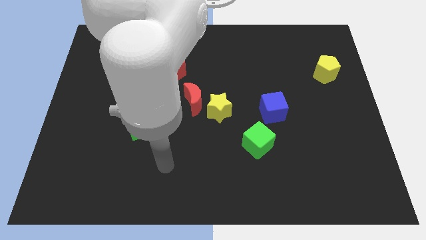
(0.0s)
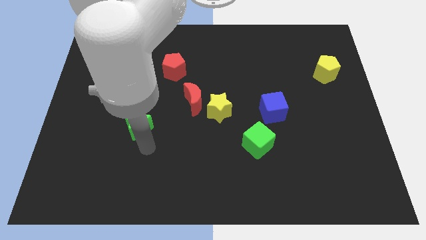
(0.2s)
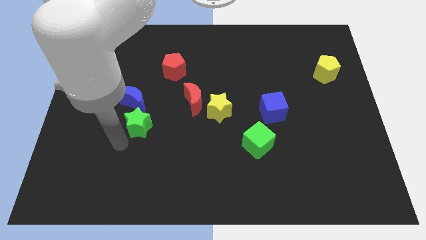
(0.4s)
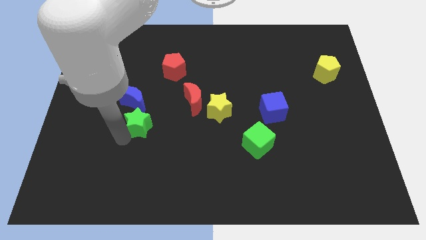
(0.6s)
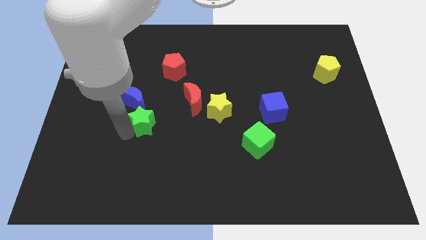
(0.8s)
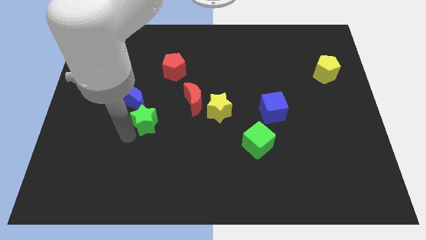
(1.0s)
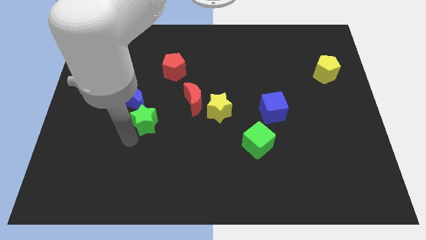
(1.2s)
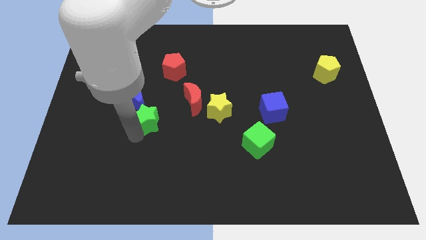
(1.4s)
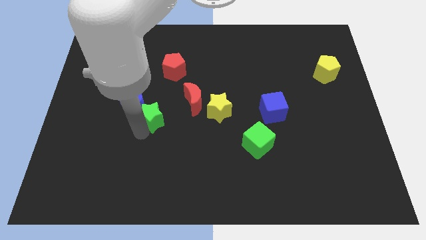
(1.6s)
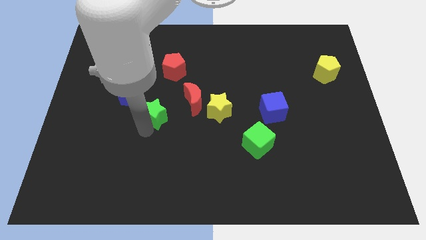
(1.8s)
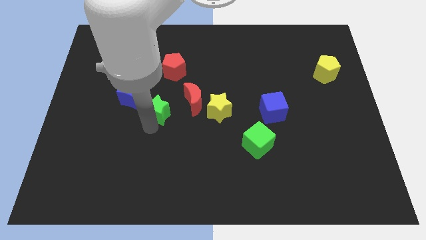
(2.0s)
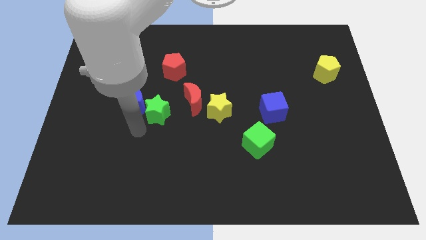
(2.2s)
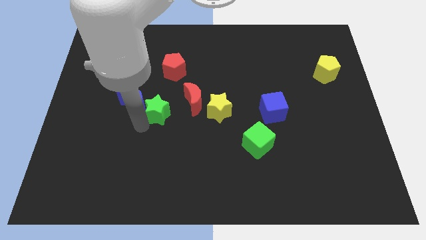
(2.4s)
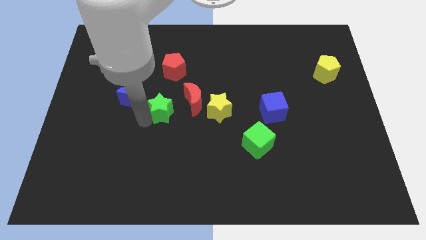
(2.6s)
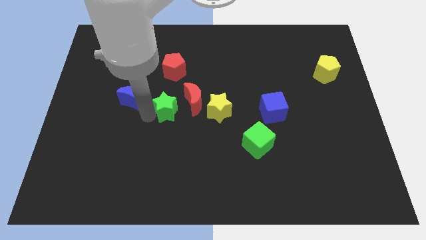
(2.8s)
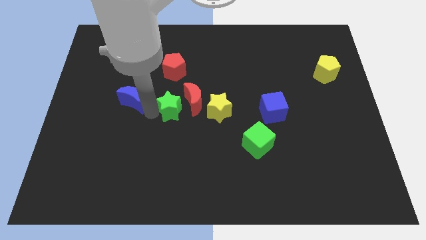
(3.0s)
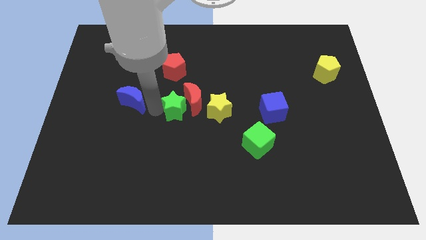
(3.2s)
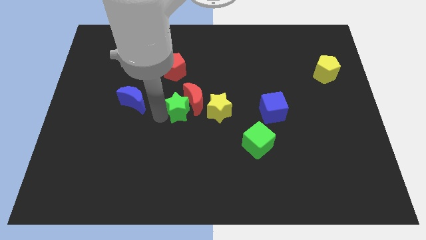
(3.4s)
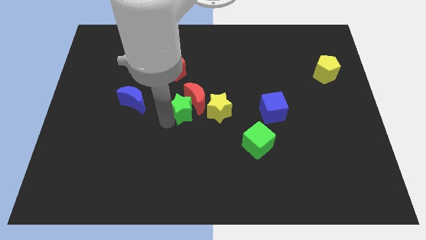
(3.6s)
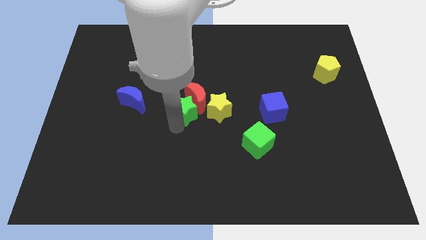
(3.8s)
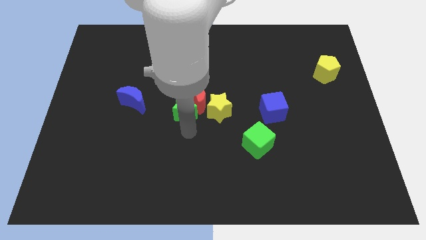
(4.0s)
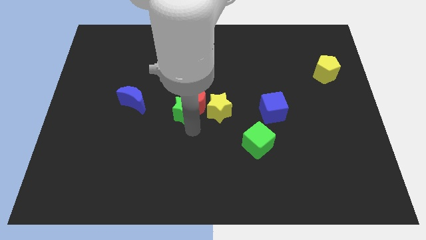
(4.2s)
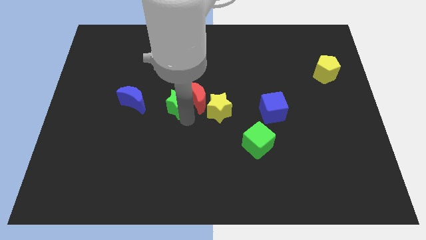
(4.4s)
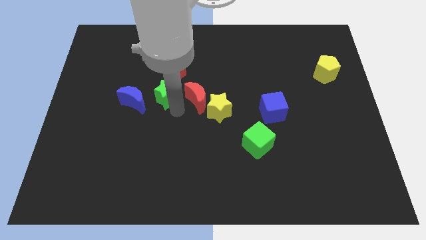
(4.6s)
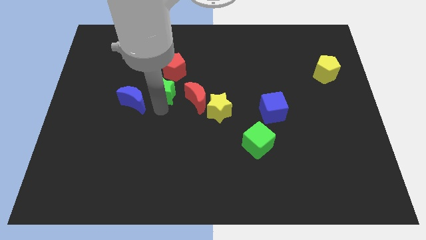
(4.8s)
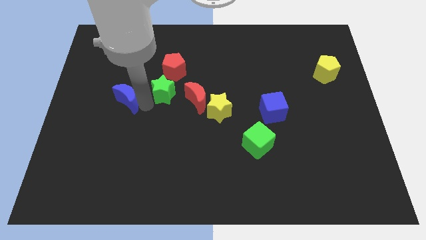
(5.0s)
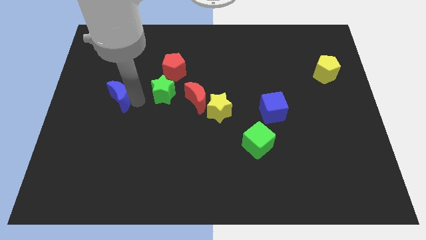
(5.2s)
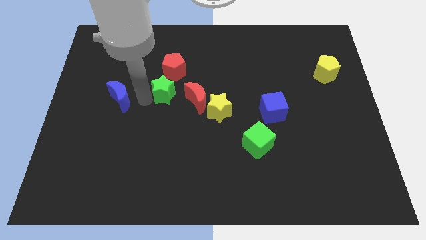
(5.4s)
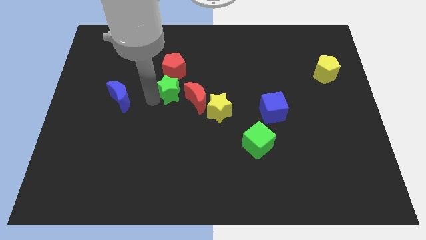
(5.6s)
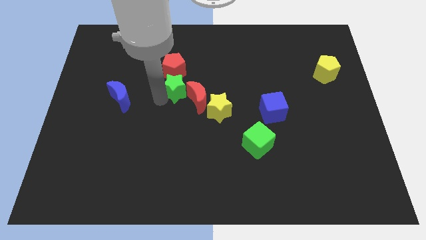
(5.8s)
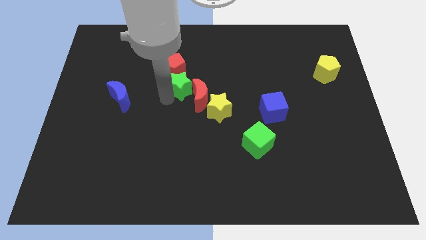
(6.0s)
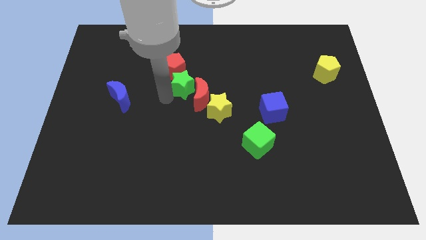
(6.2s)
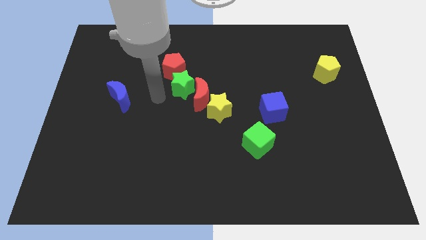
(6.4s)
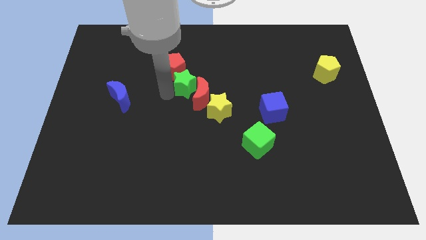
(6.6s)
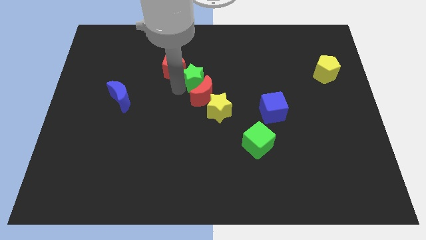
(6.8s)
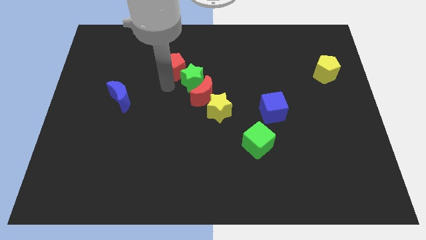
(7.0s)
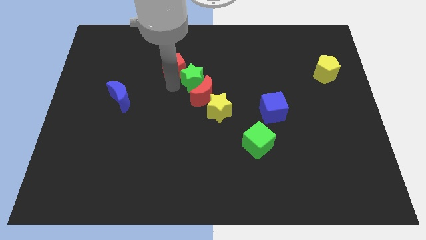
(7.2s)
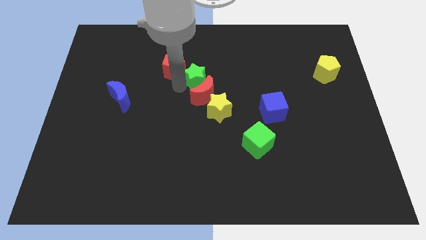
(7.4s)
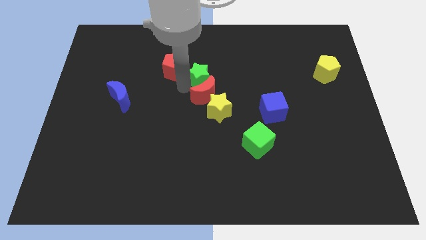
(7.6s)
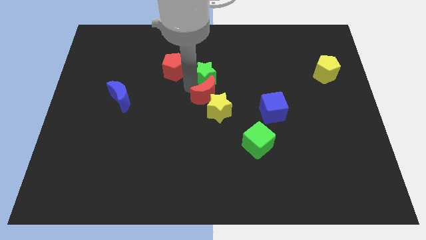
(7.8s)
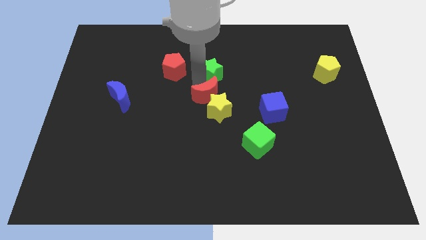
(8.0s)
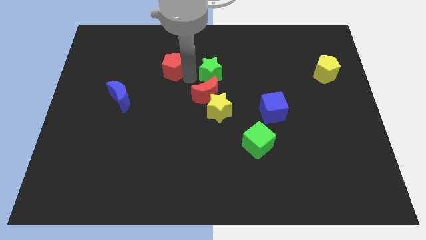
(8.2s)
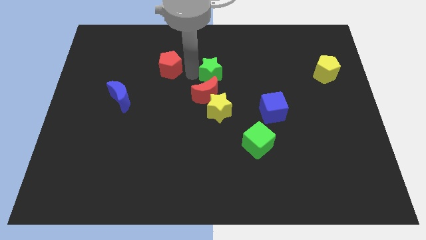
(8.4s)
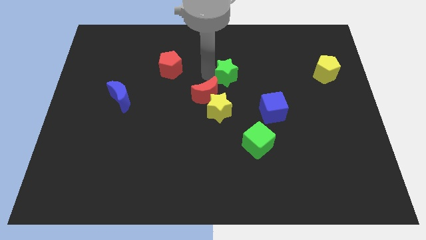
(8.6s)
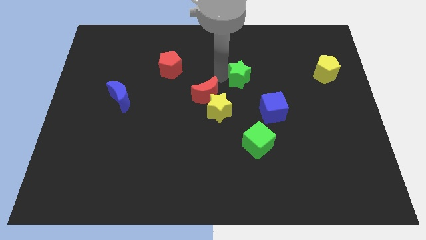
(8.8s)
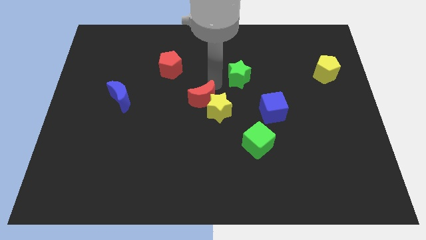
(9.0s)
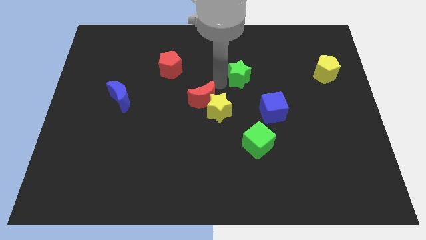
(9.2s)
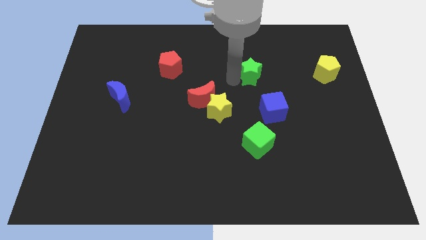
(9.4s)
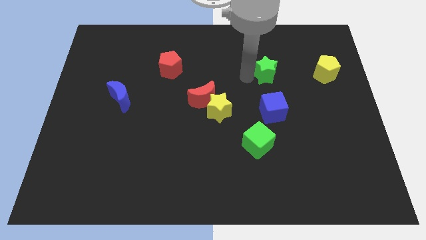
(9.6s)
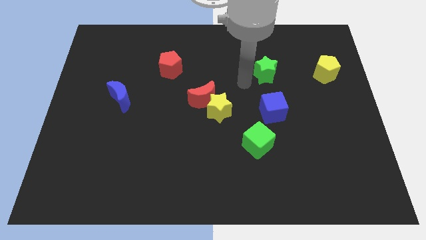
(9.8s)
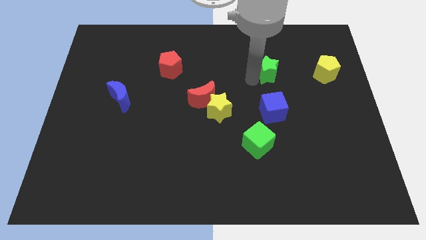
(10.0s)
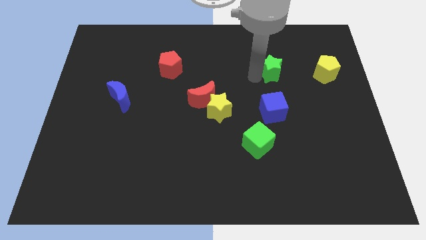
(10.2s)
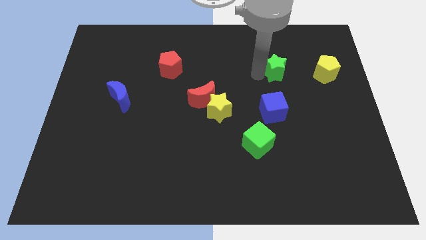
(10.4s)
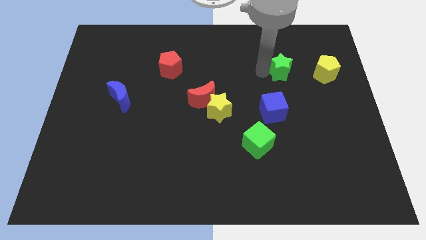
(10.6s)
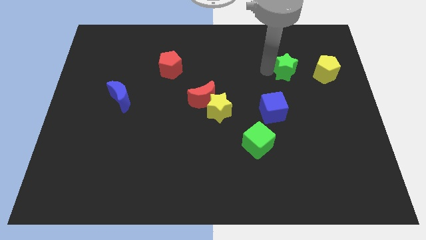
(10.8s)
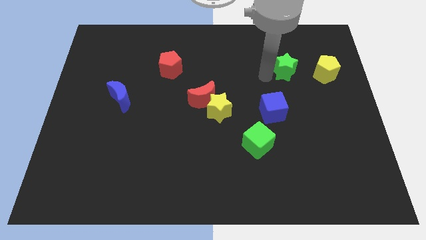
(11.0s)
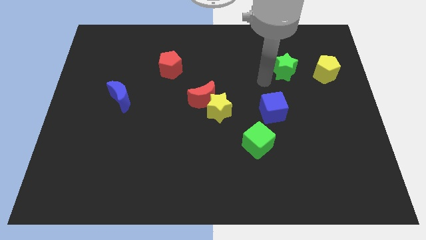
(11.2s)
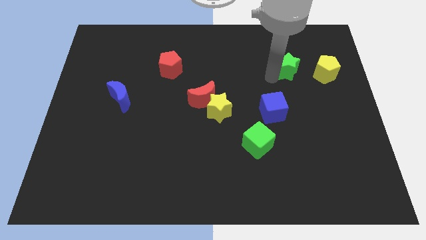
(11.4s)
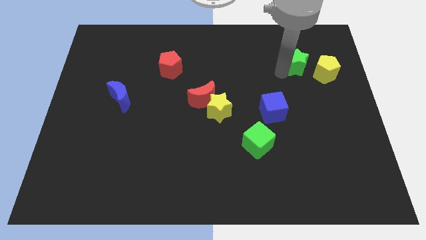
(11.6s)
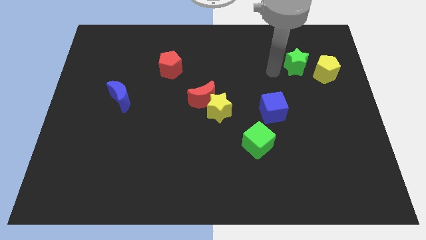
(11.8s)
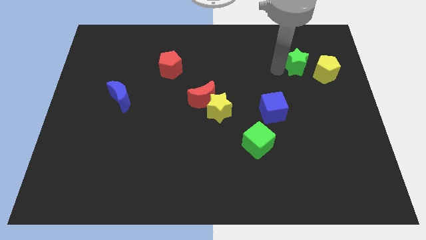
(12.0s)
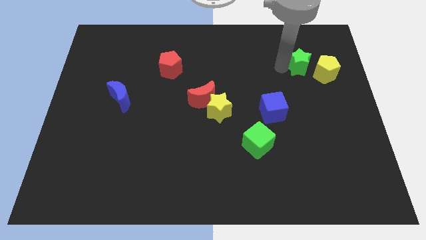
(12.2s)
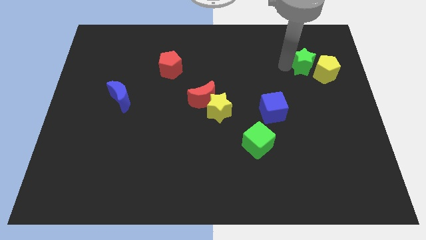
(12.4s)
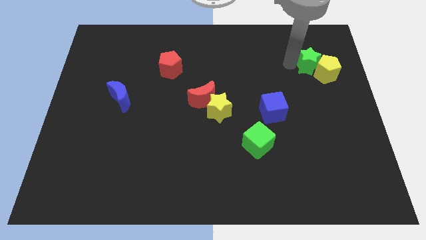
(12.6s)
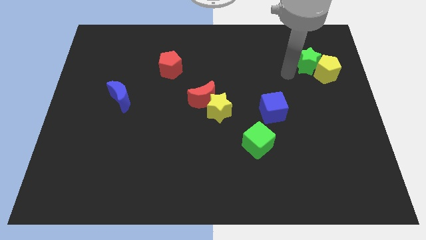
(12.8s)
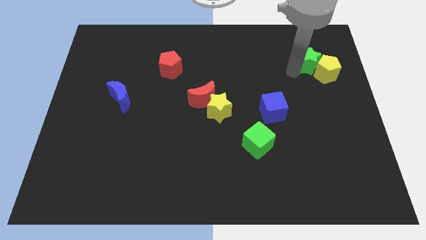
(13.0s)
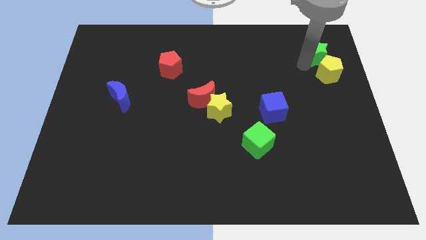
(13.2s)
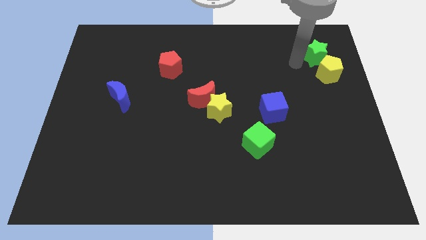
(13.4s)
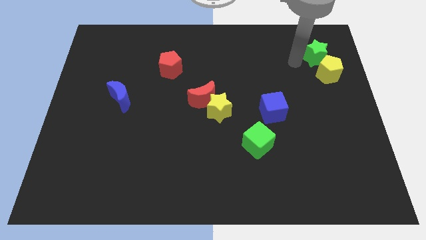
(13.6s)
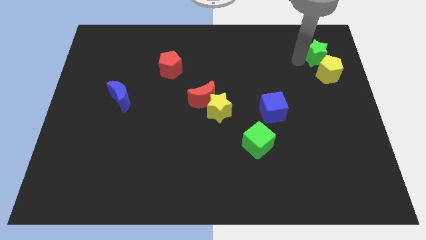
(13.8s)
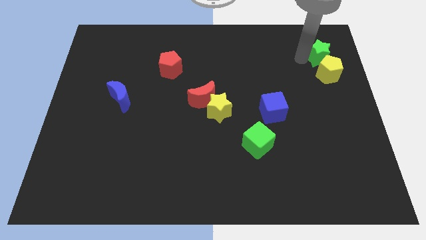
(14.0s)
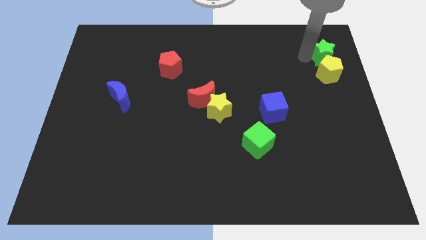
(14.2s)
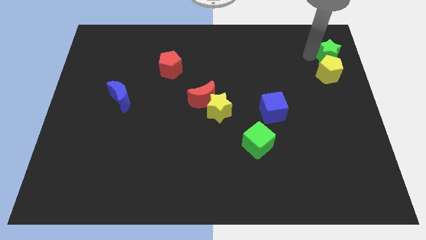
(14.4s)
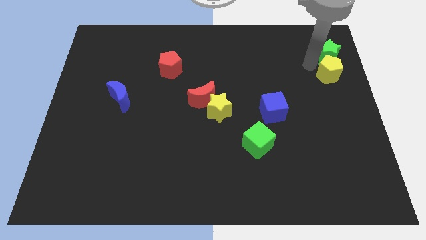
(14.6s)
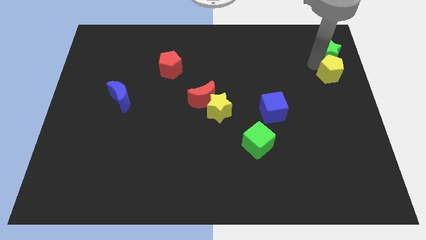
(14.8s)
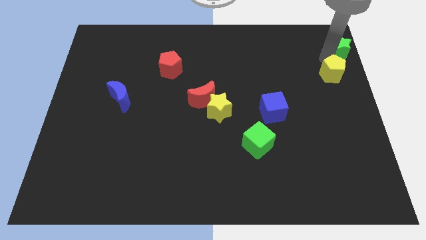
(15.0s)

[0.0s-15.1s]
slide the green star to the top right corner
